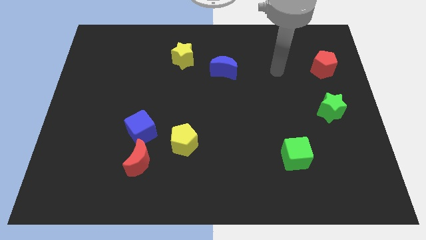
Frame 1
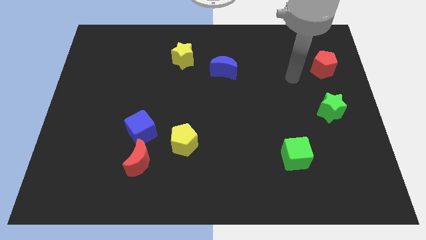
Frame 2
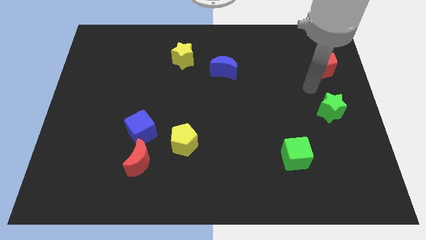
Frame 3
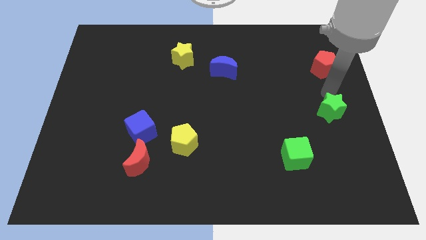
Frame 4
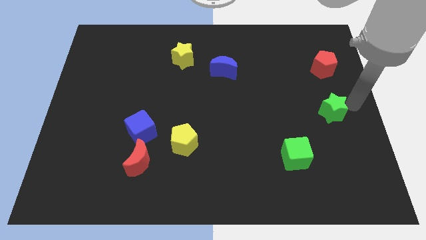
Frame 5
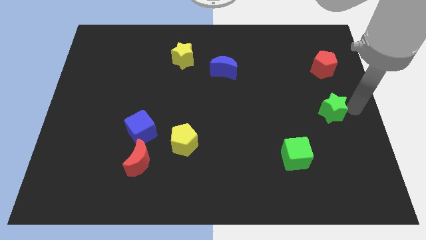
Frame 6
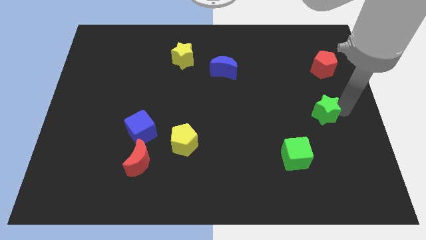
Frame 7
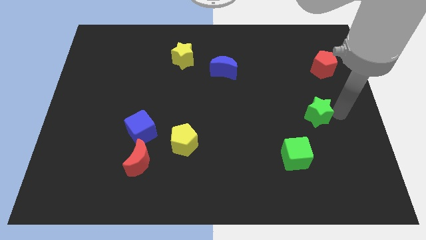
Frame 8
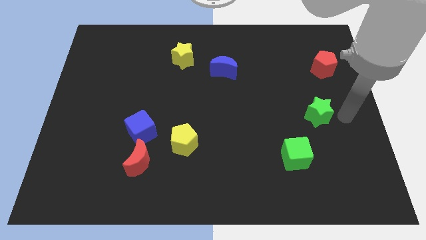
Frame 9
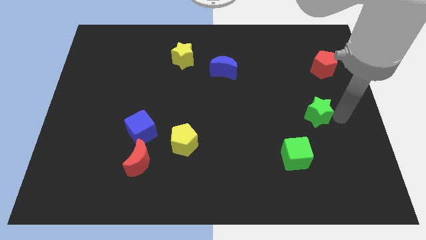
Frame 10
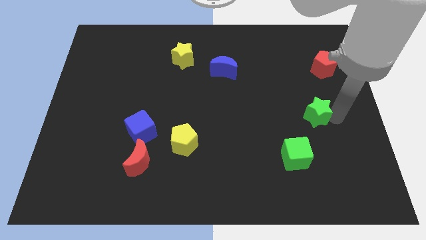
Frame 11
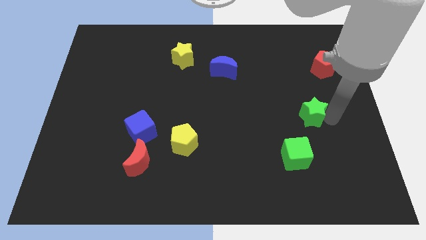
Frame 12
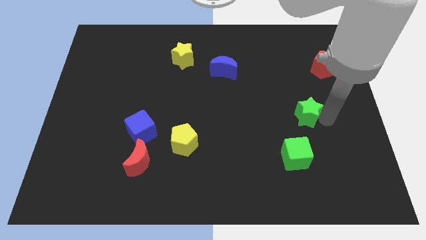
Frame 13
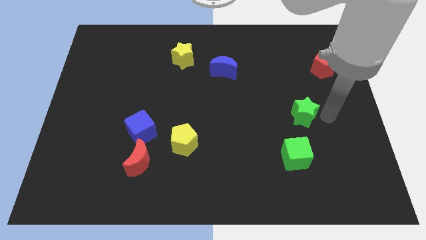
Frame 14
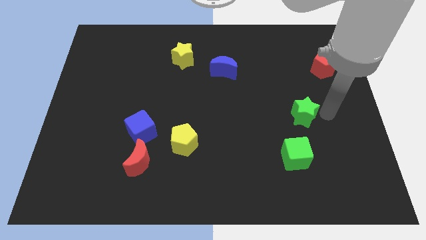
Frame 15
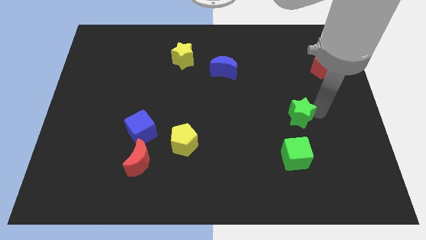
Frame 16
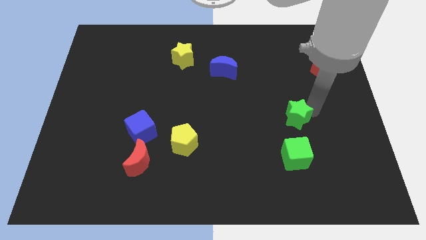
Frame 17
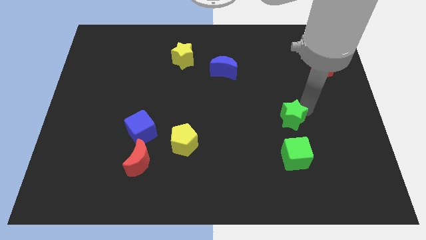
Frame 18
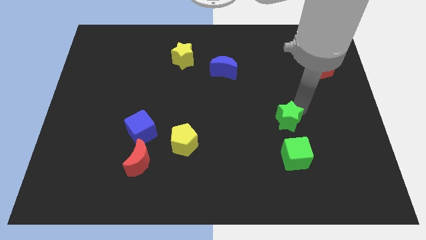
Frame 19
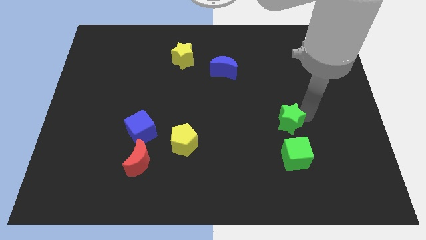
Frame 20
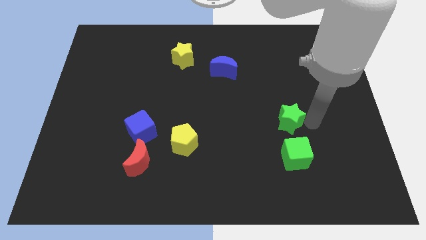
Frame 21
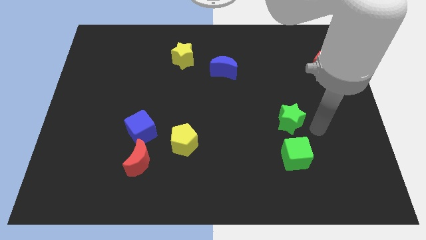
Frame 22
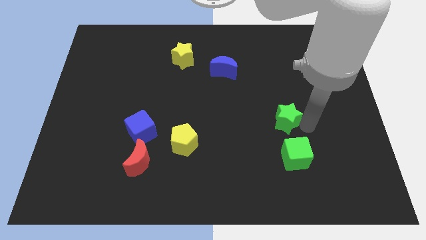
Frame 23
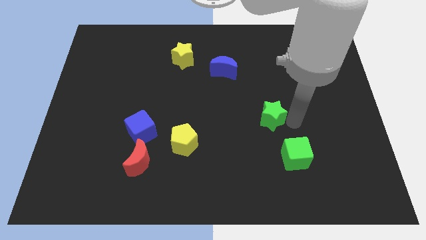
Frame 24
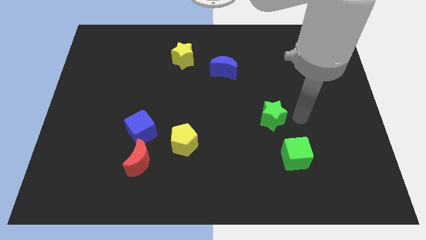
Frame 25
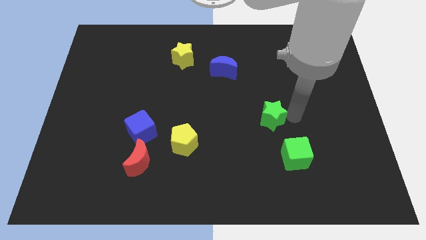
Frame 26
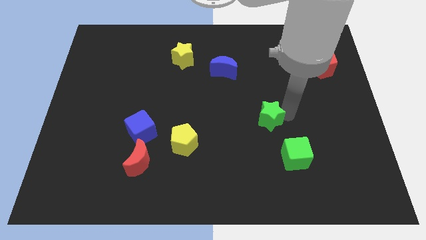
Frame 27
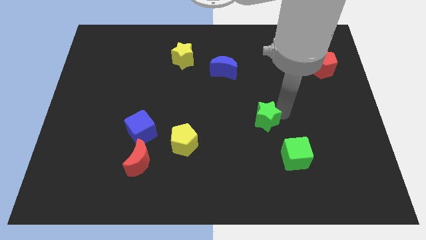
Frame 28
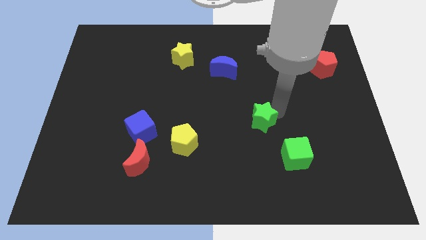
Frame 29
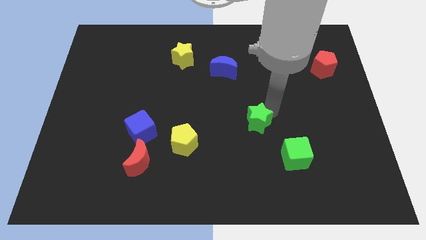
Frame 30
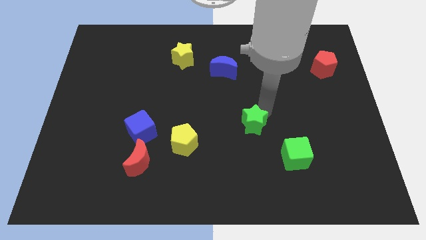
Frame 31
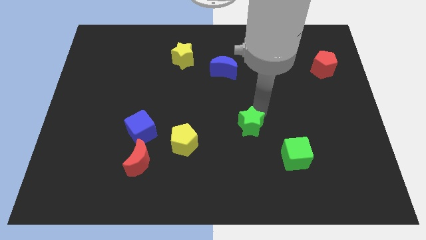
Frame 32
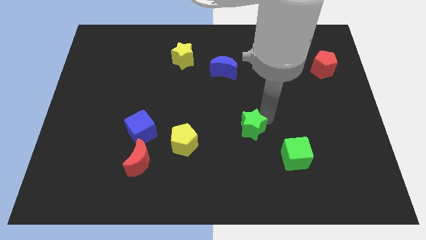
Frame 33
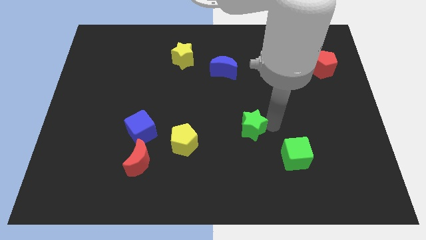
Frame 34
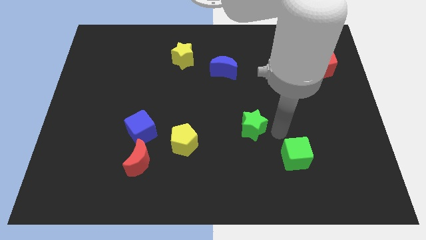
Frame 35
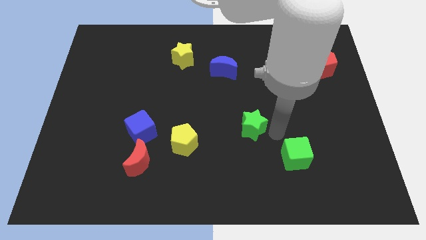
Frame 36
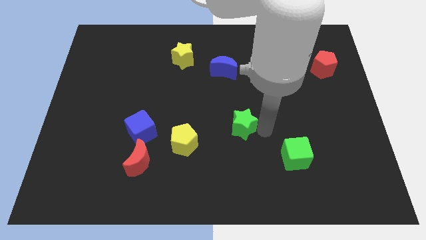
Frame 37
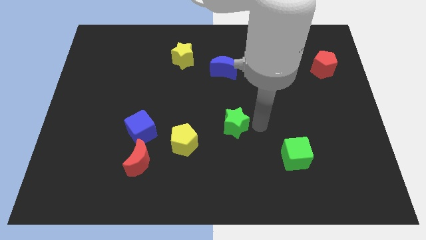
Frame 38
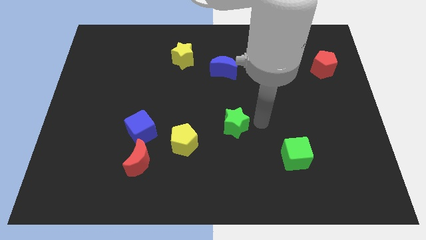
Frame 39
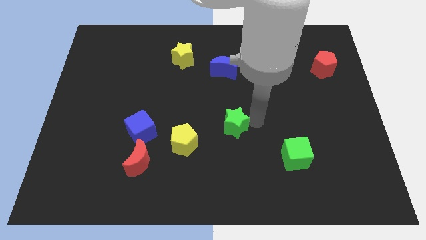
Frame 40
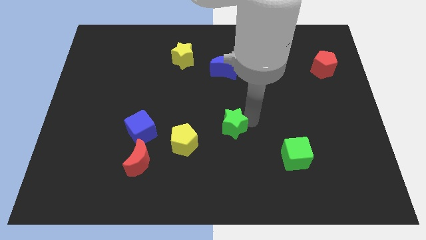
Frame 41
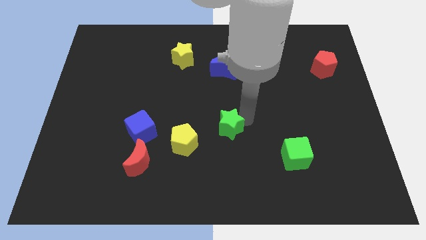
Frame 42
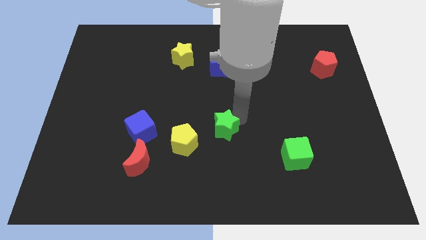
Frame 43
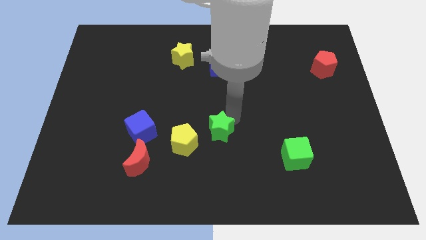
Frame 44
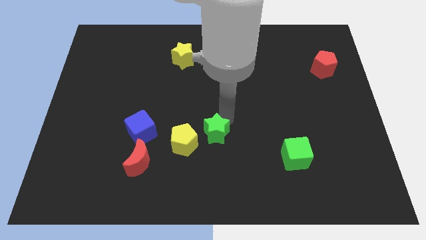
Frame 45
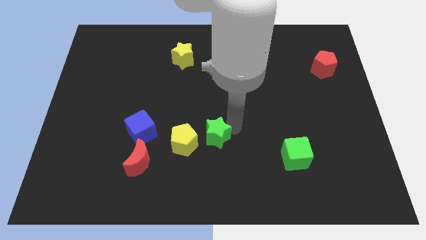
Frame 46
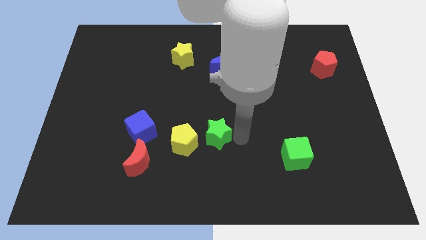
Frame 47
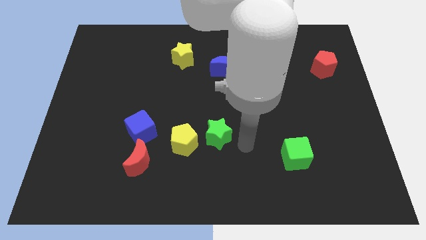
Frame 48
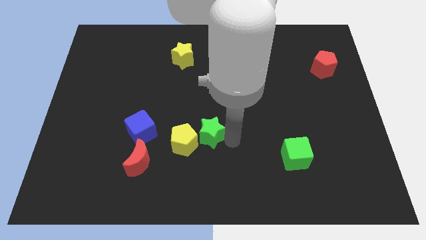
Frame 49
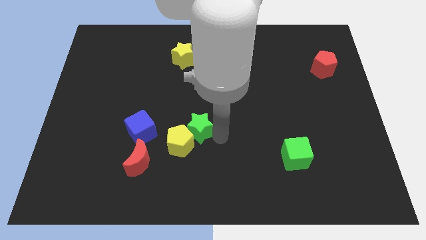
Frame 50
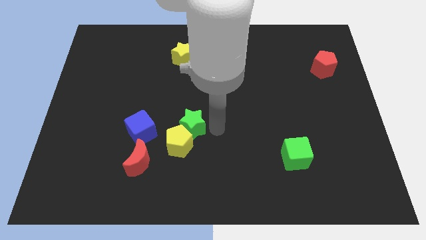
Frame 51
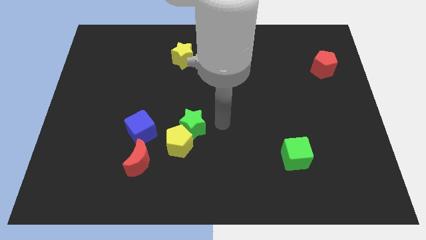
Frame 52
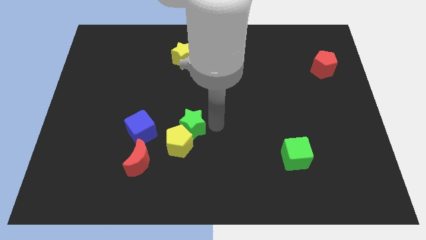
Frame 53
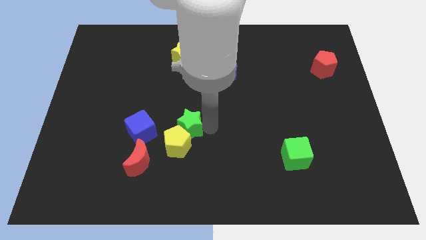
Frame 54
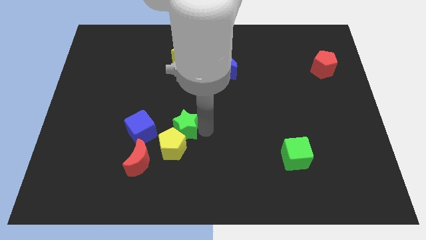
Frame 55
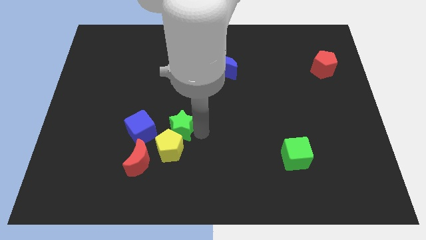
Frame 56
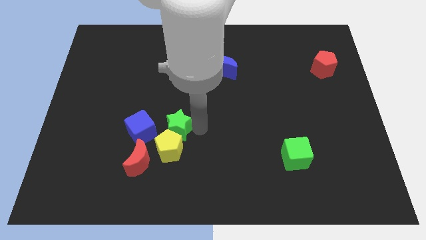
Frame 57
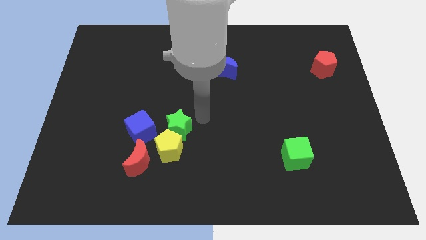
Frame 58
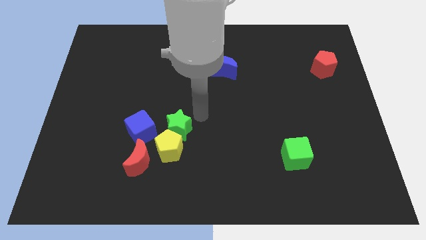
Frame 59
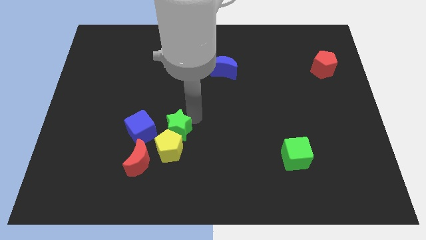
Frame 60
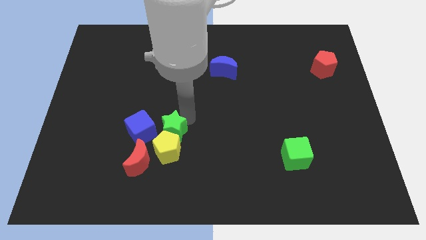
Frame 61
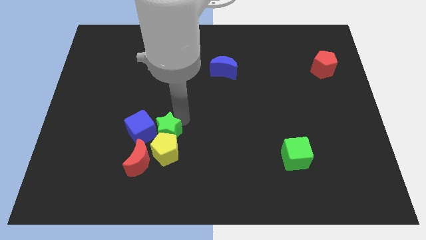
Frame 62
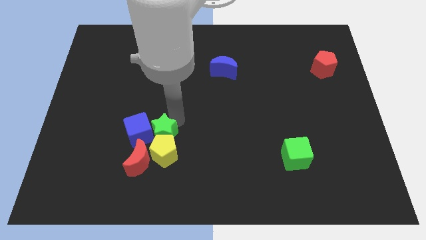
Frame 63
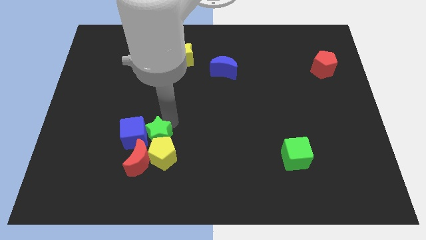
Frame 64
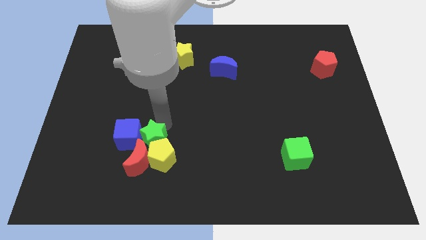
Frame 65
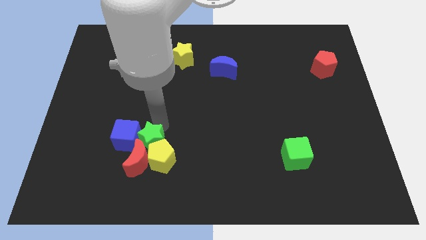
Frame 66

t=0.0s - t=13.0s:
put the green star towards the red moon
